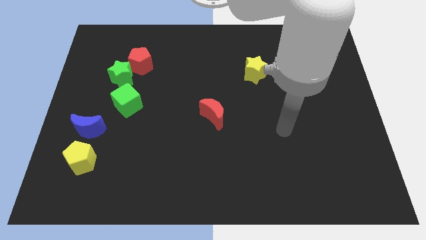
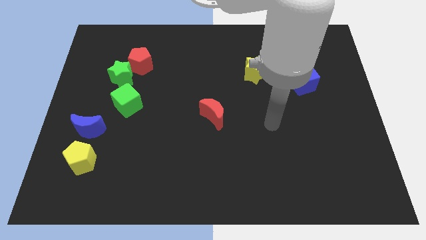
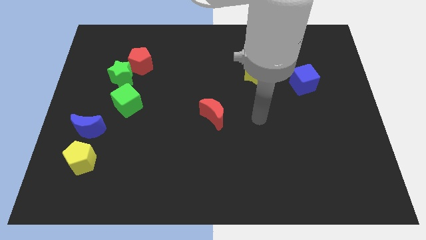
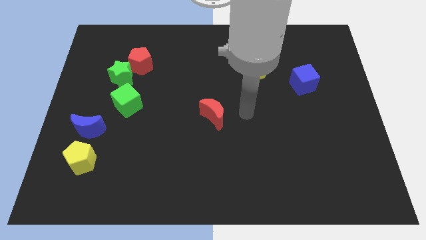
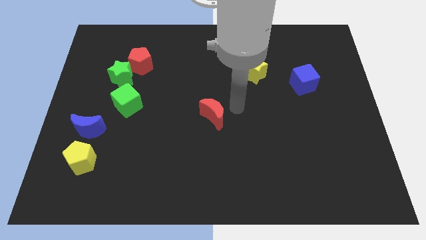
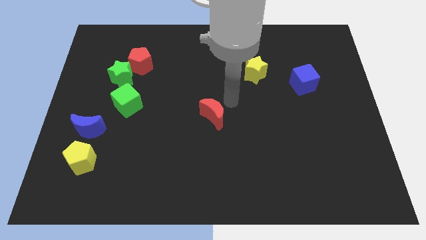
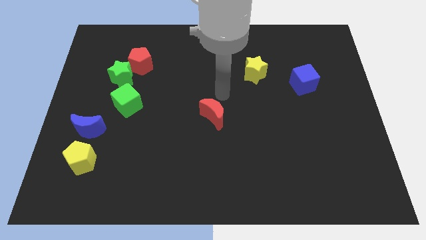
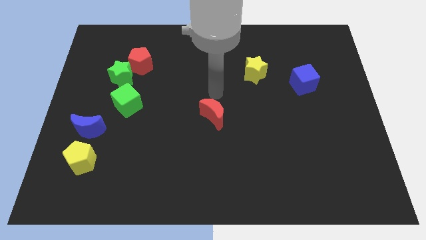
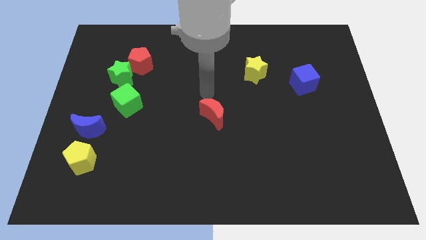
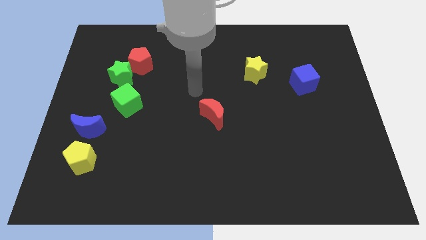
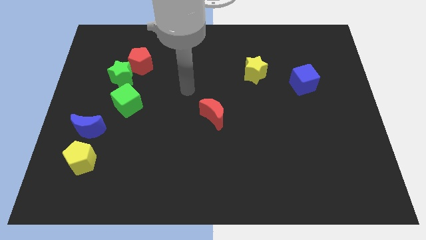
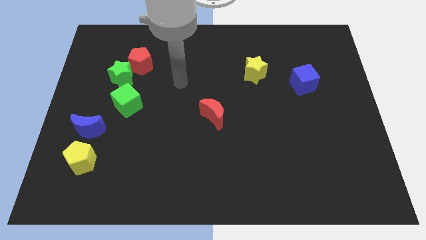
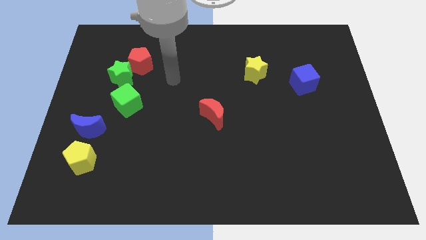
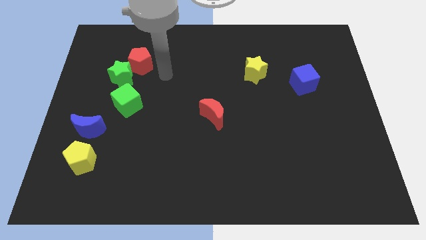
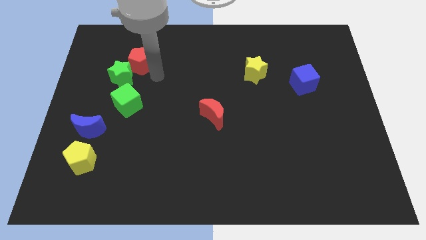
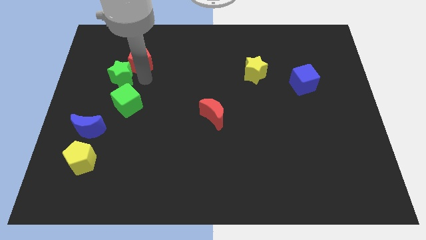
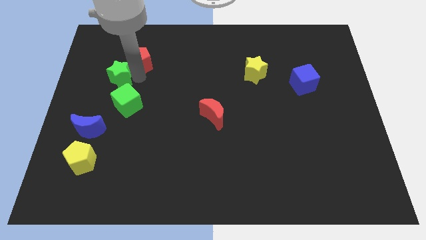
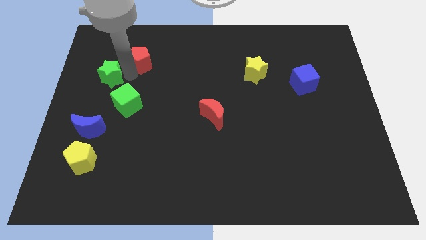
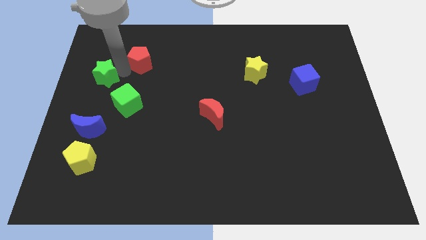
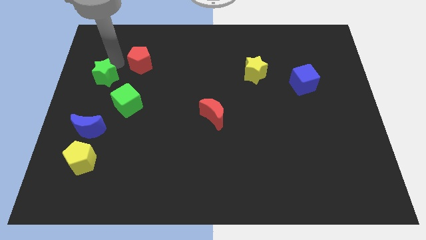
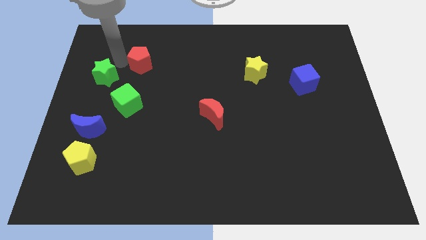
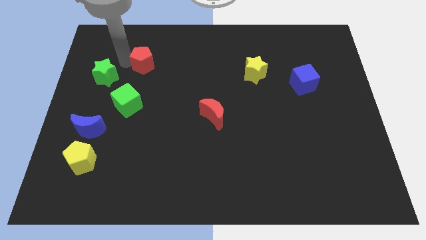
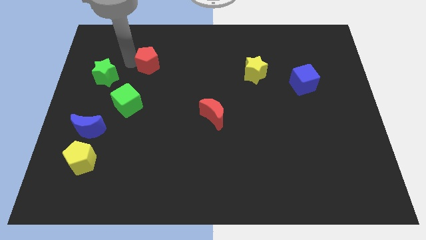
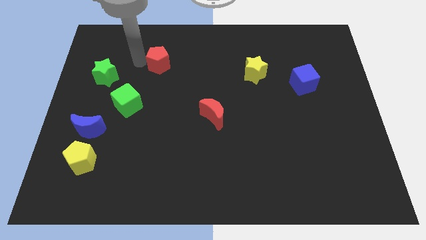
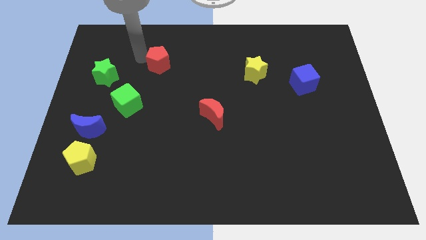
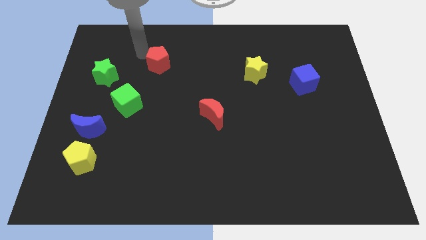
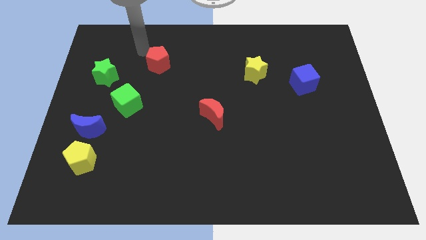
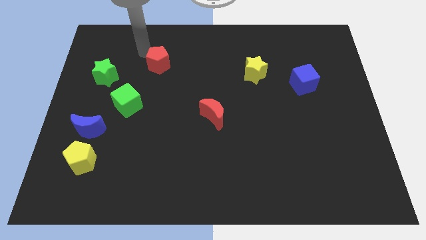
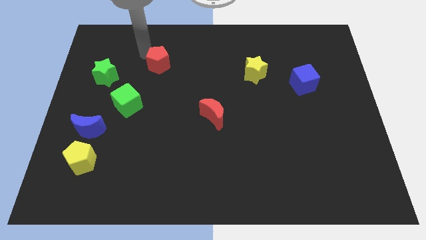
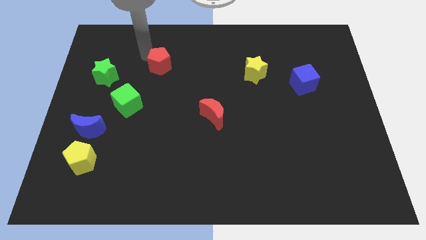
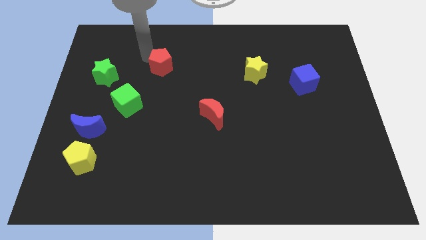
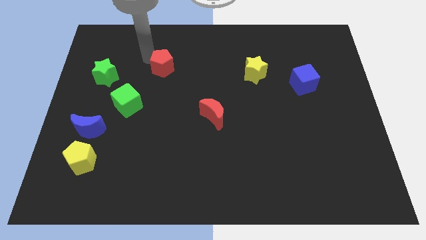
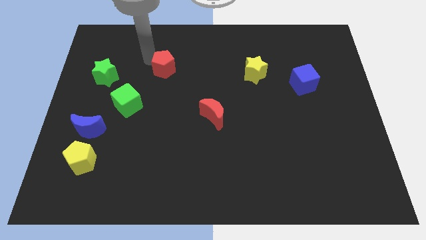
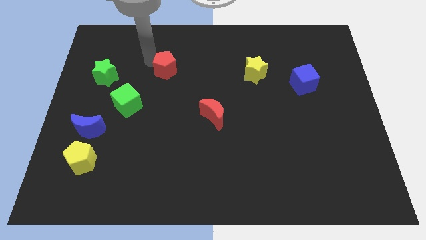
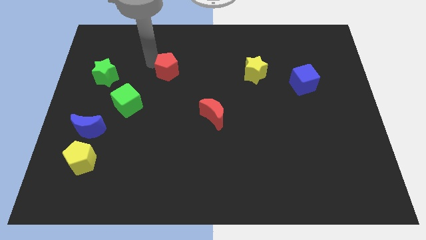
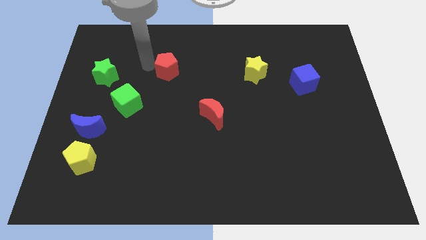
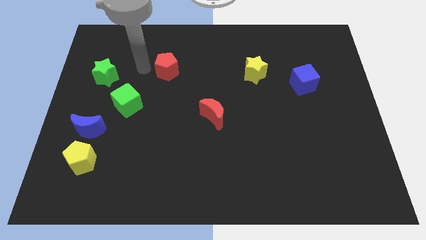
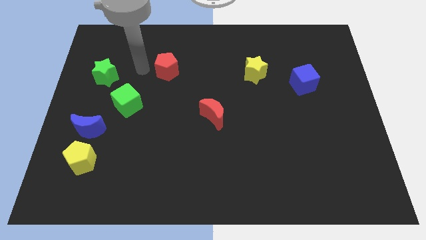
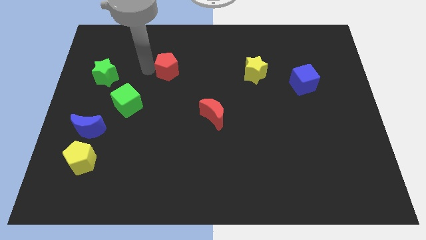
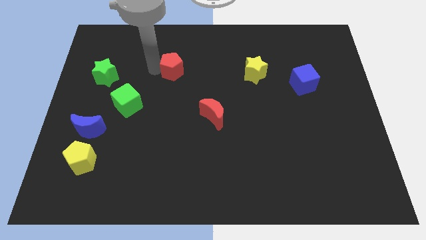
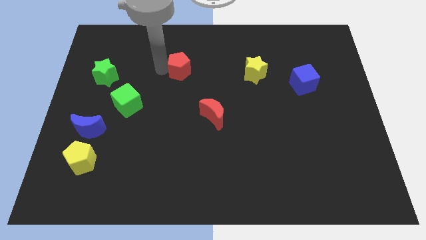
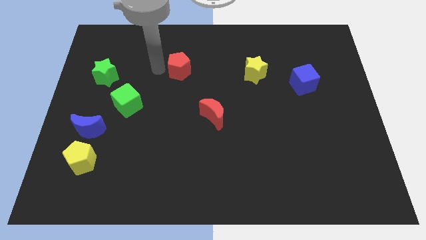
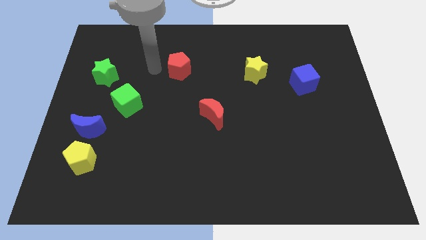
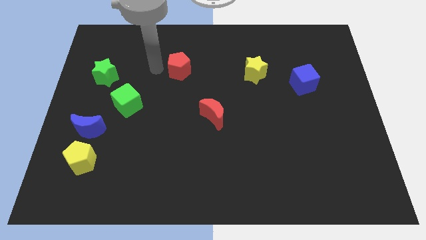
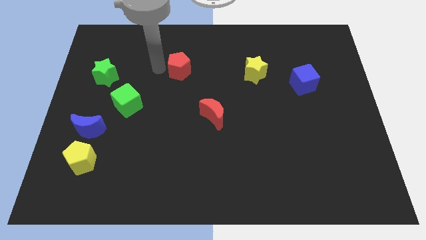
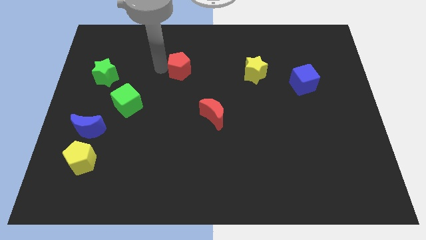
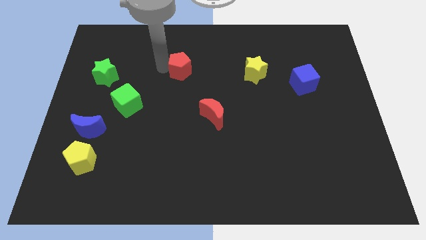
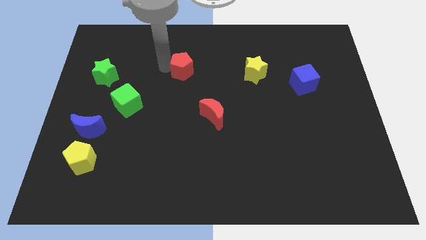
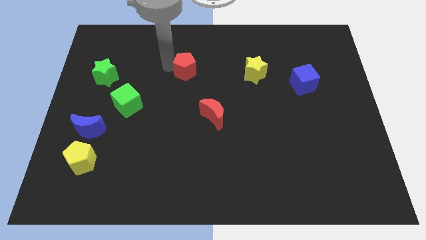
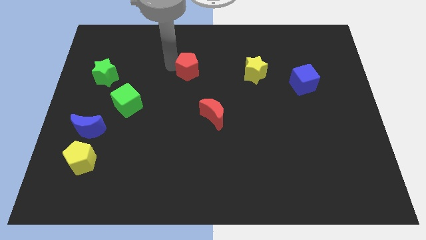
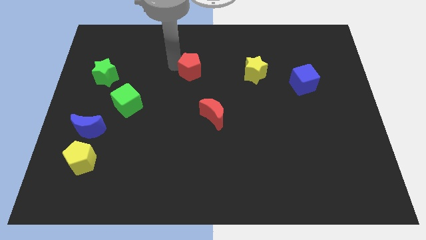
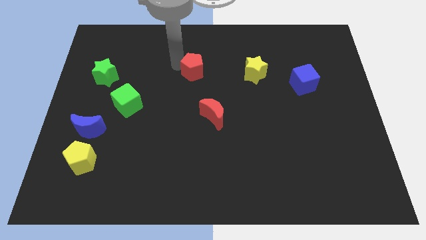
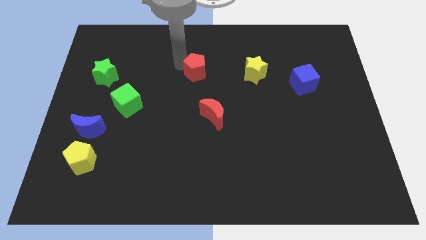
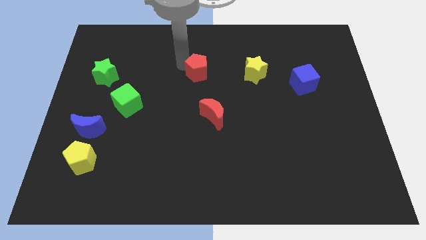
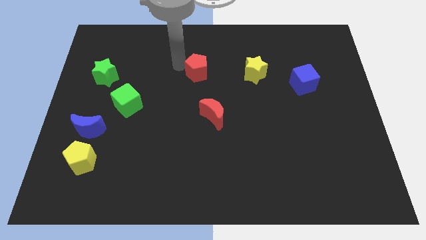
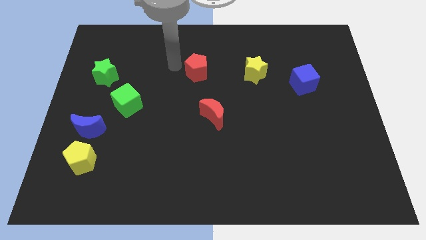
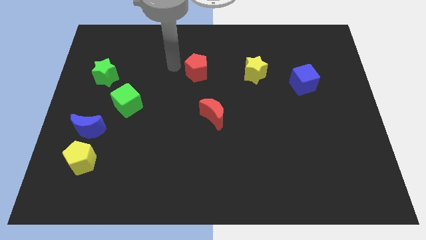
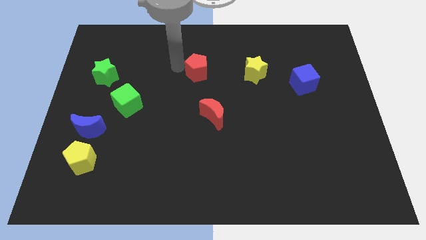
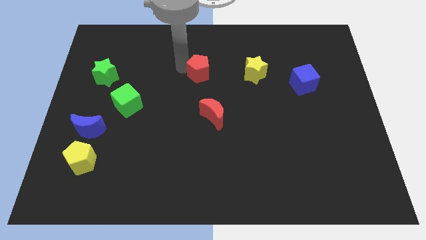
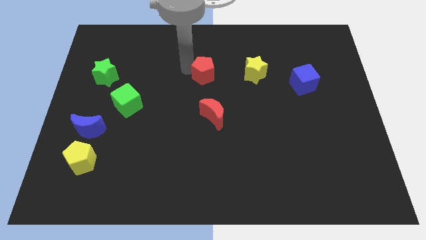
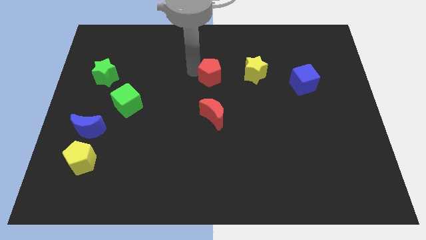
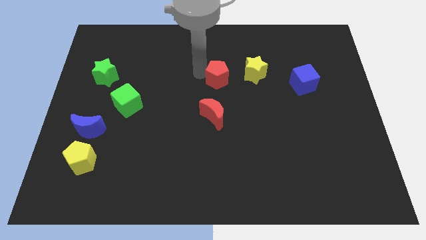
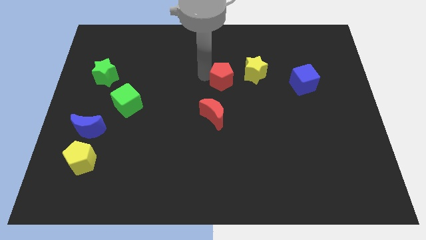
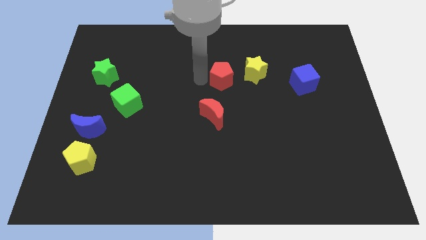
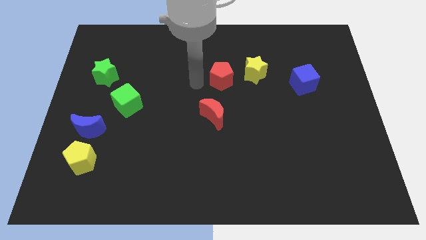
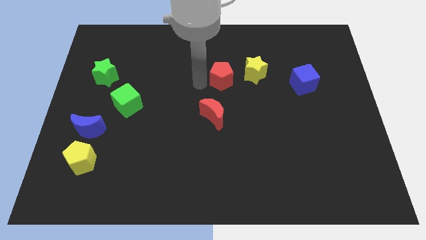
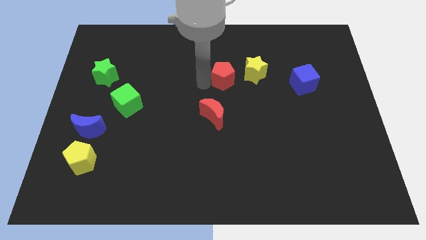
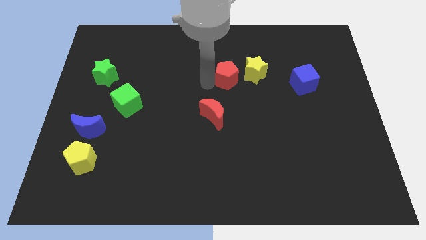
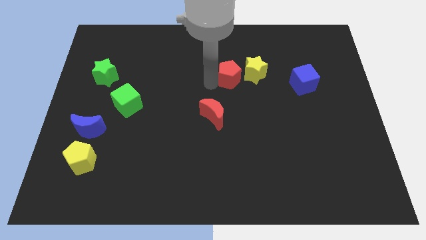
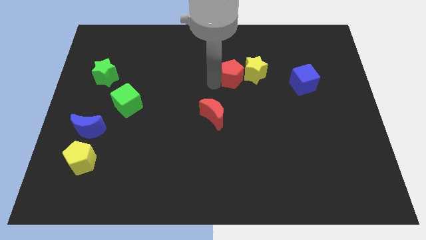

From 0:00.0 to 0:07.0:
slide the red pentagon to the yellow star

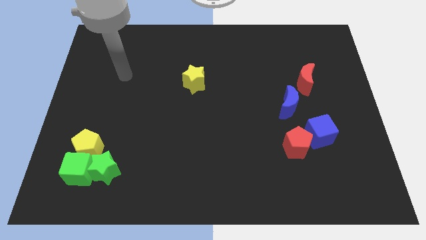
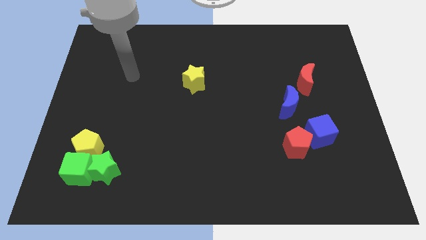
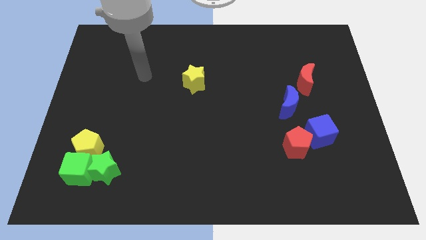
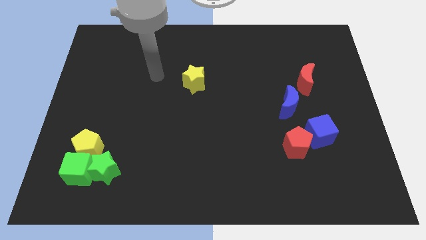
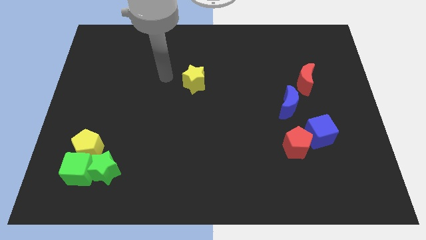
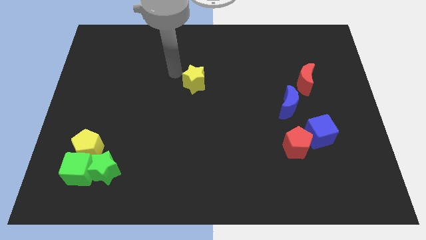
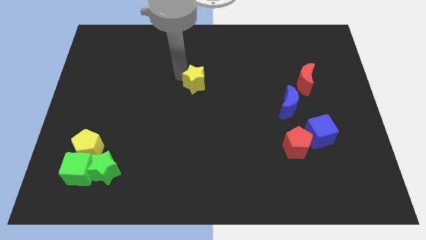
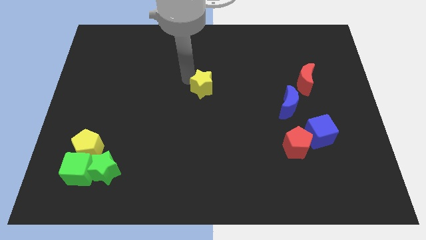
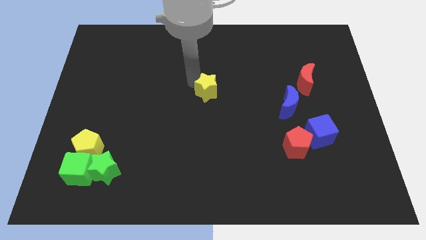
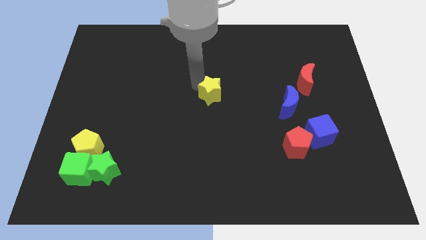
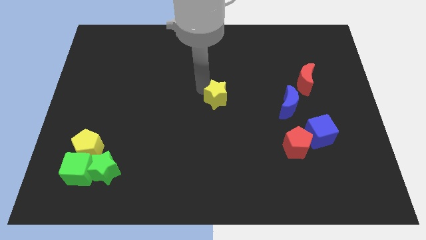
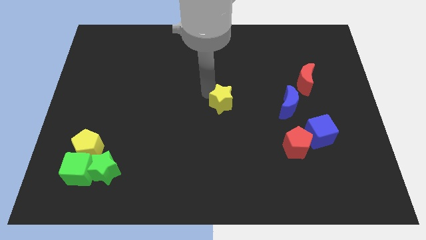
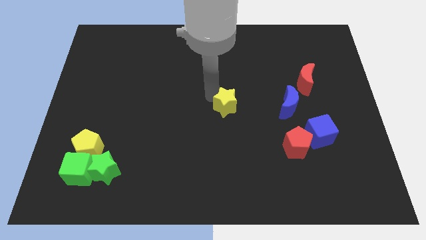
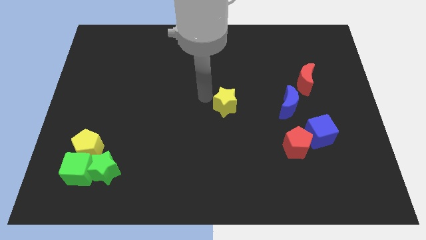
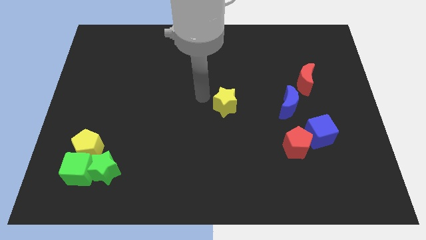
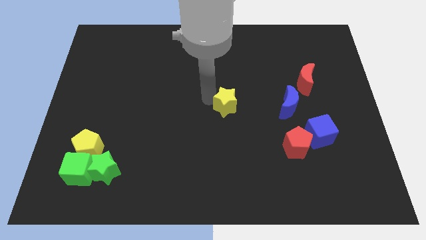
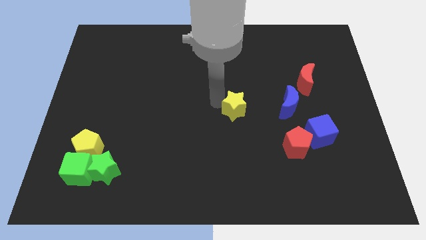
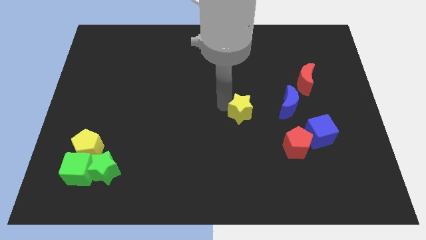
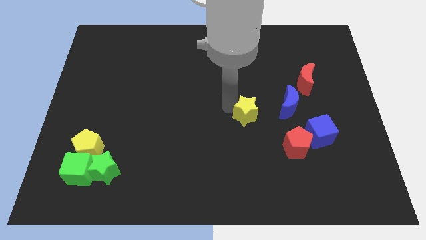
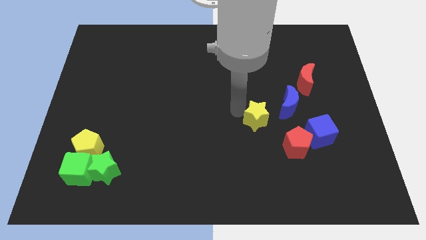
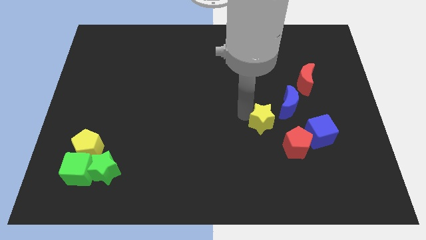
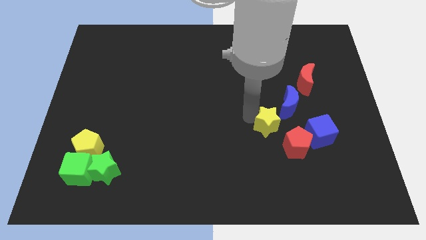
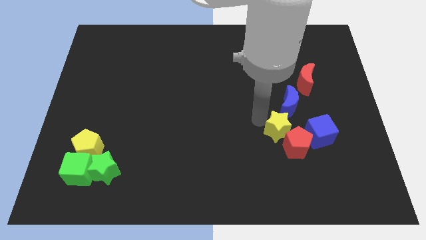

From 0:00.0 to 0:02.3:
move the yellow star next to the red pentagon
